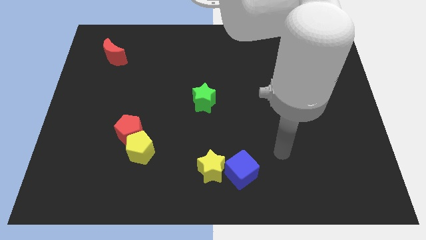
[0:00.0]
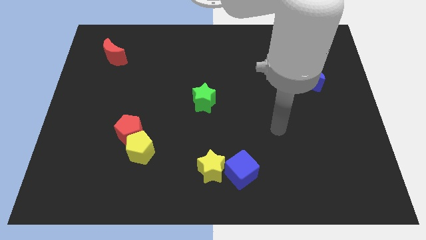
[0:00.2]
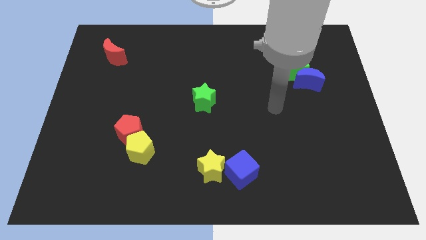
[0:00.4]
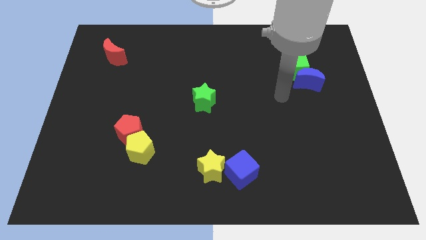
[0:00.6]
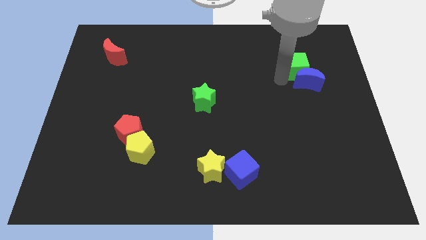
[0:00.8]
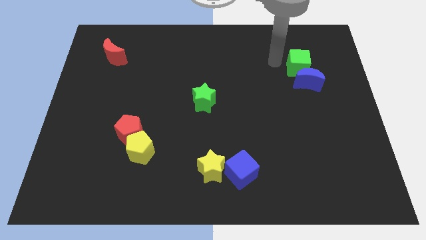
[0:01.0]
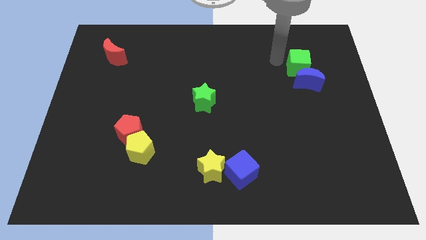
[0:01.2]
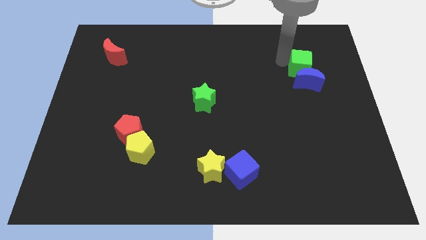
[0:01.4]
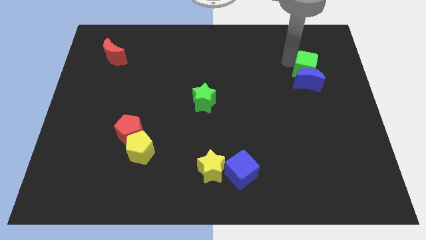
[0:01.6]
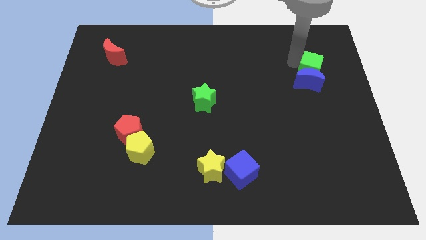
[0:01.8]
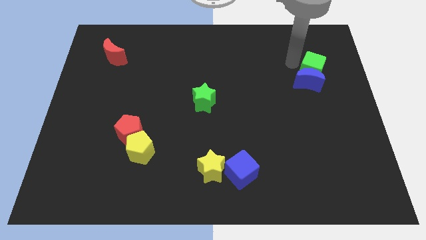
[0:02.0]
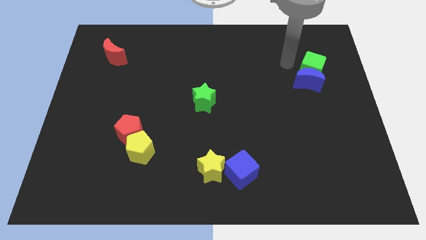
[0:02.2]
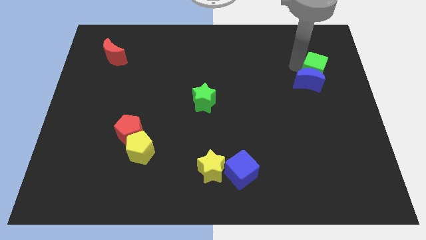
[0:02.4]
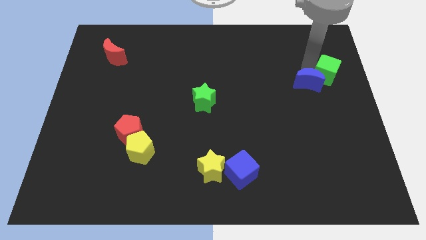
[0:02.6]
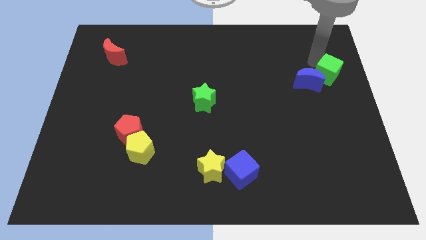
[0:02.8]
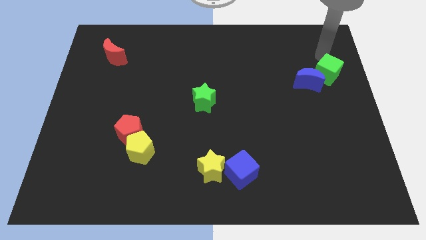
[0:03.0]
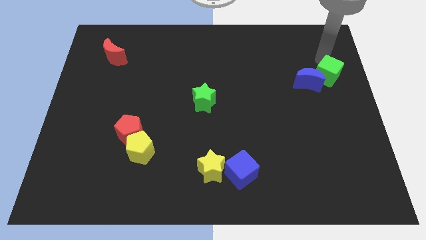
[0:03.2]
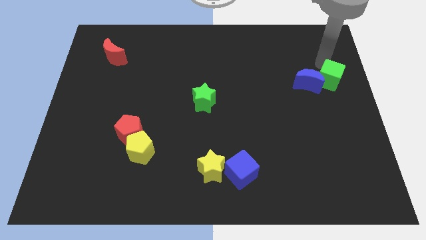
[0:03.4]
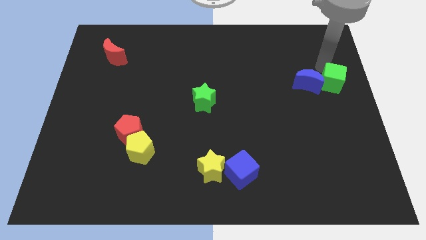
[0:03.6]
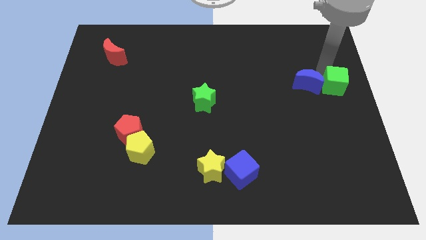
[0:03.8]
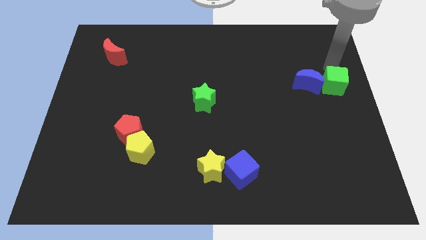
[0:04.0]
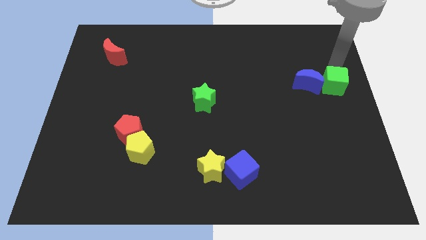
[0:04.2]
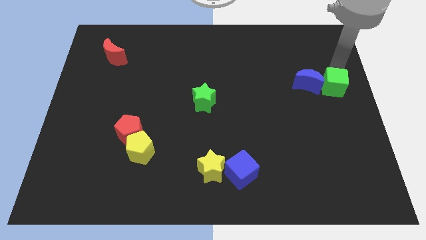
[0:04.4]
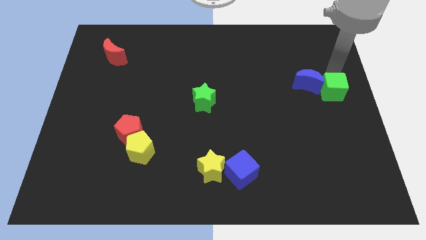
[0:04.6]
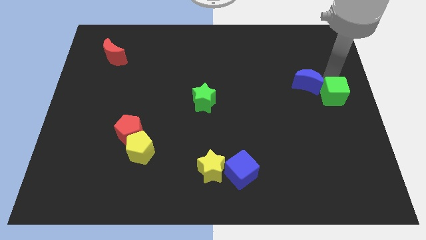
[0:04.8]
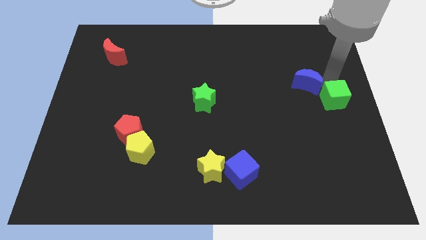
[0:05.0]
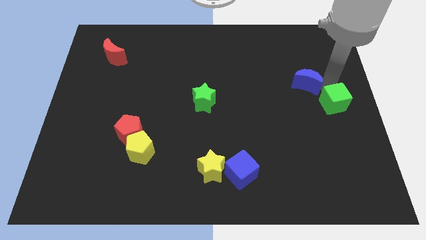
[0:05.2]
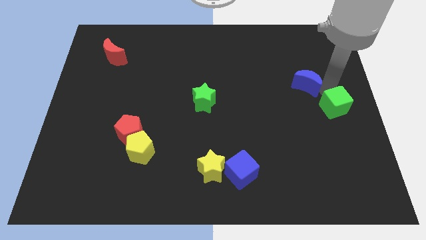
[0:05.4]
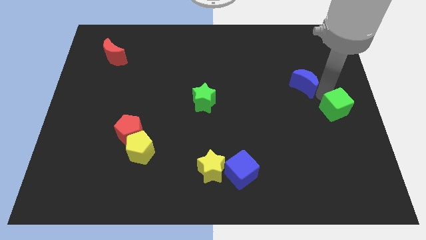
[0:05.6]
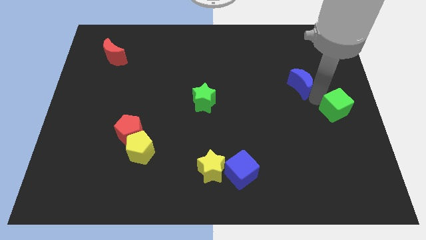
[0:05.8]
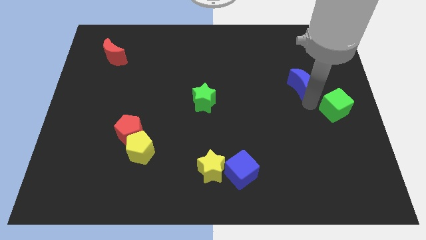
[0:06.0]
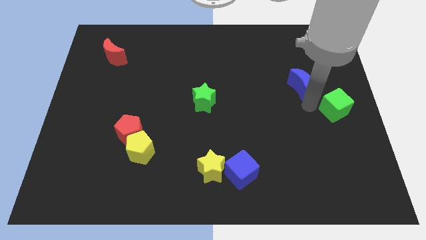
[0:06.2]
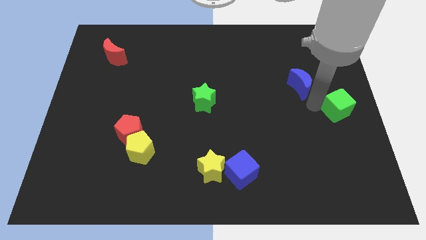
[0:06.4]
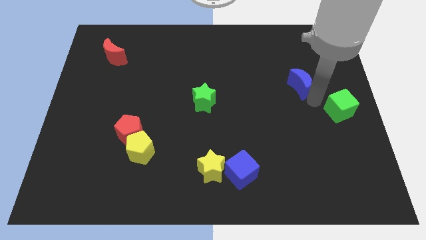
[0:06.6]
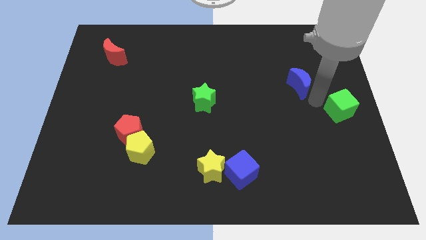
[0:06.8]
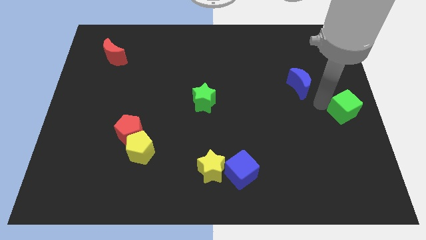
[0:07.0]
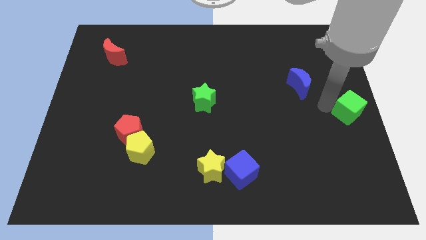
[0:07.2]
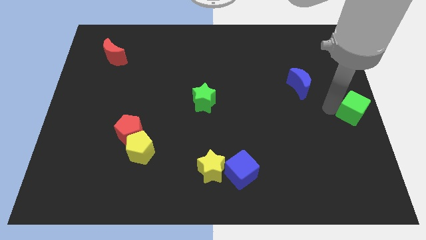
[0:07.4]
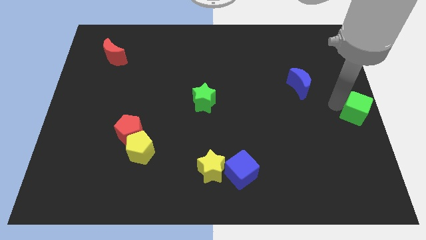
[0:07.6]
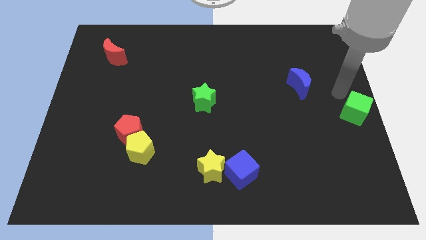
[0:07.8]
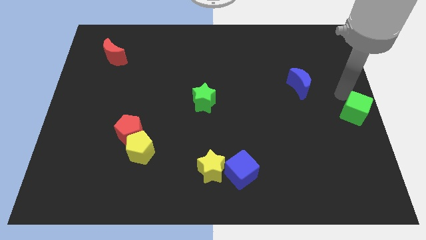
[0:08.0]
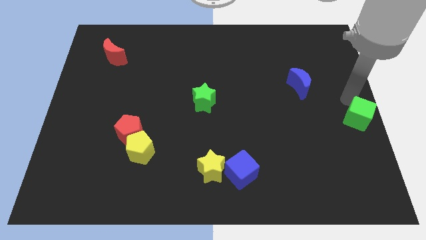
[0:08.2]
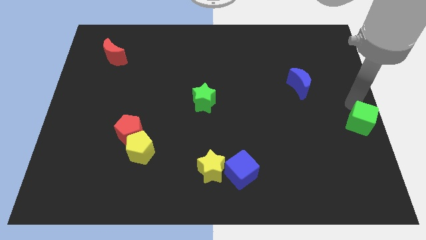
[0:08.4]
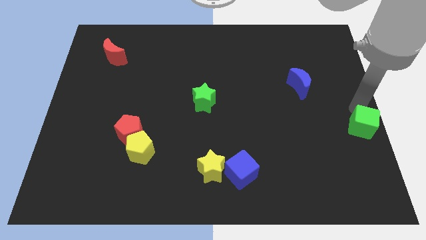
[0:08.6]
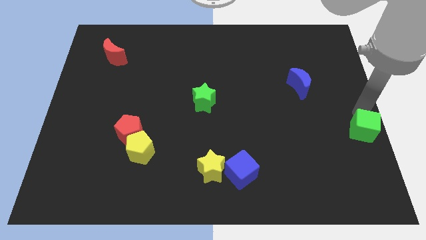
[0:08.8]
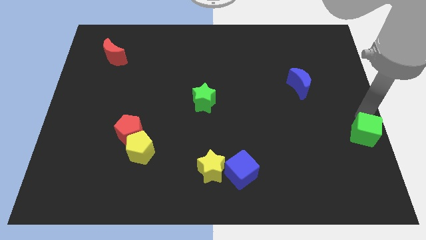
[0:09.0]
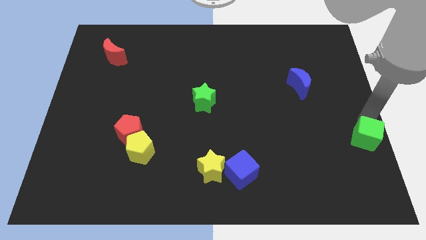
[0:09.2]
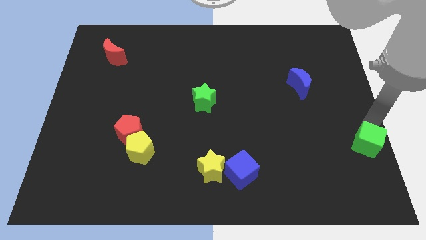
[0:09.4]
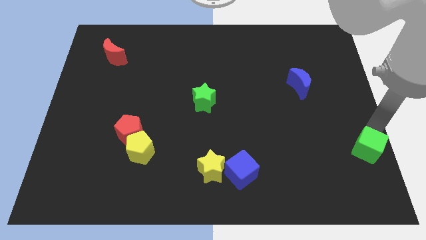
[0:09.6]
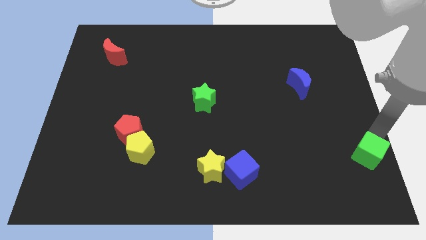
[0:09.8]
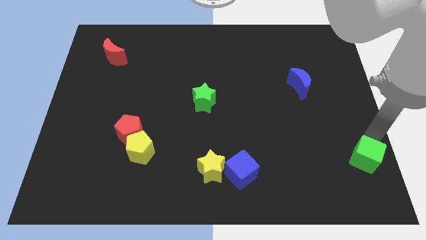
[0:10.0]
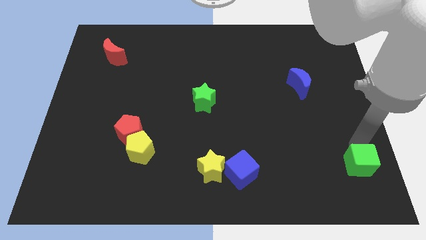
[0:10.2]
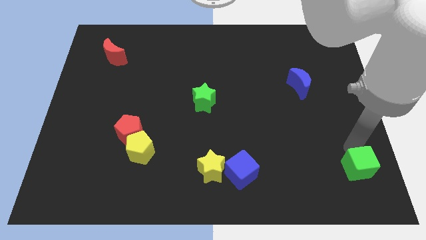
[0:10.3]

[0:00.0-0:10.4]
slide the green cube to the bottom right

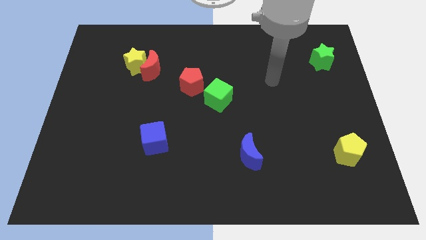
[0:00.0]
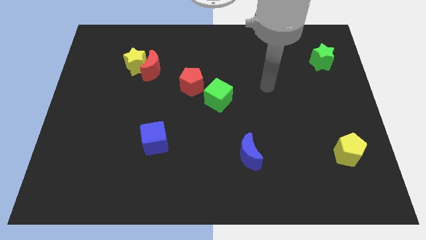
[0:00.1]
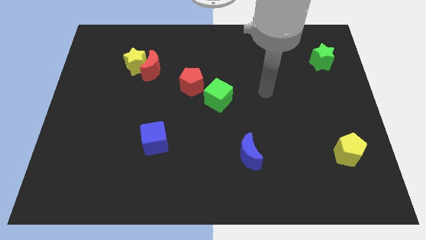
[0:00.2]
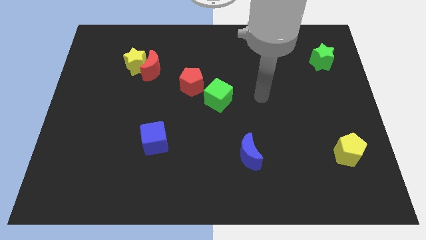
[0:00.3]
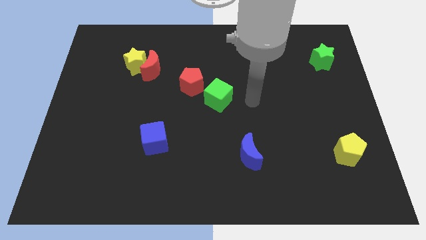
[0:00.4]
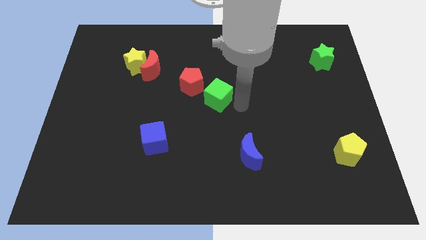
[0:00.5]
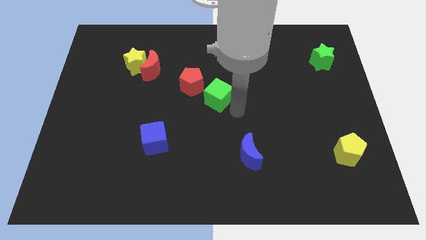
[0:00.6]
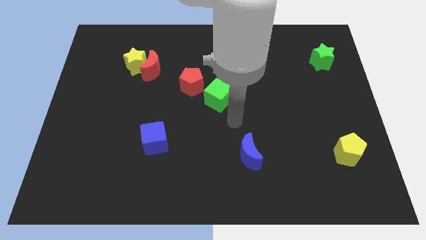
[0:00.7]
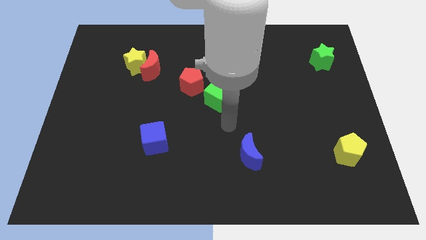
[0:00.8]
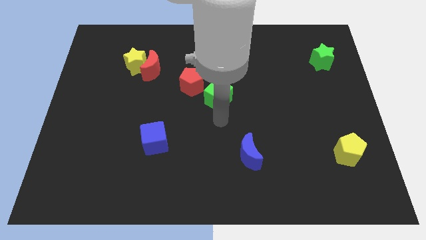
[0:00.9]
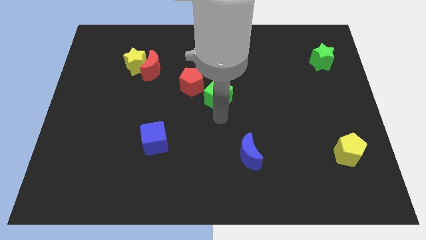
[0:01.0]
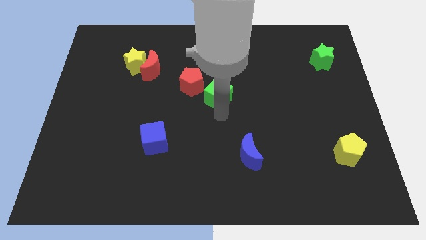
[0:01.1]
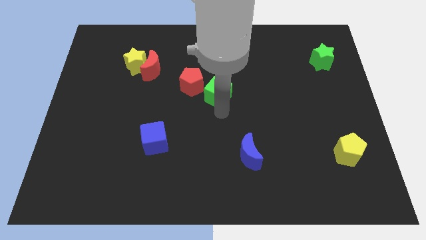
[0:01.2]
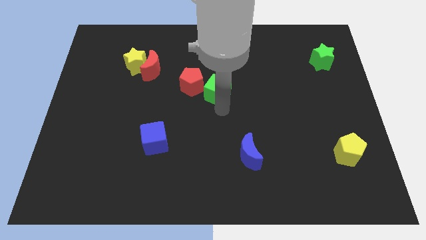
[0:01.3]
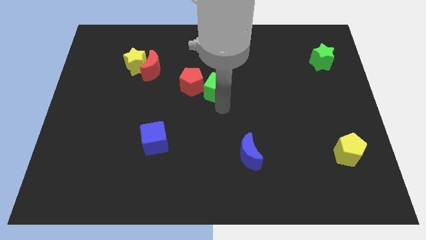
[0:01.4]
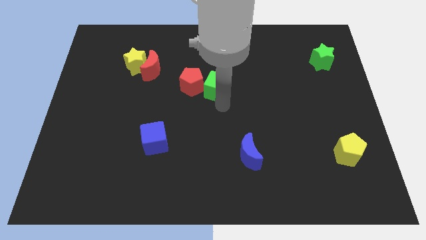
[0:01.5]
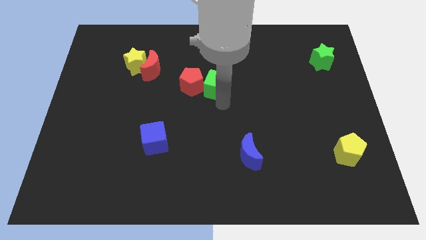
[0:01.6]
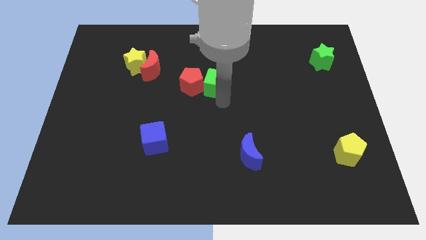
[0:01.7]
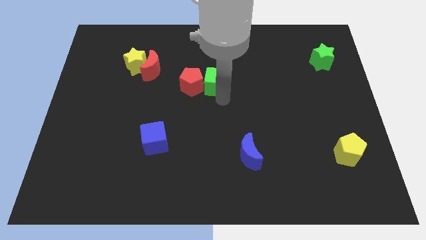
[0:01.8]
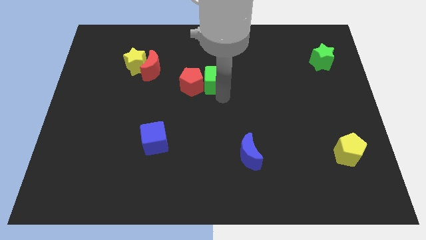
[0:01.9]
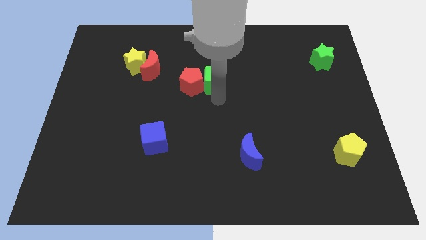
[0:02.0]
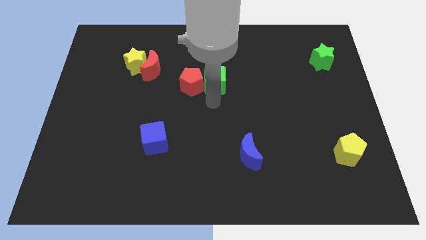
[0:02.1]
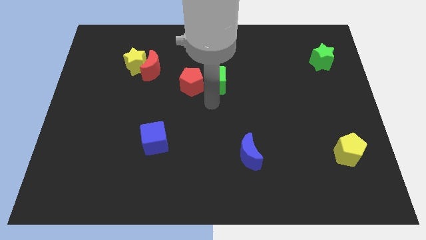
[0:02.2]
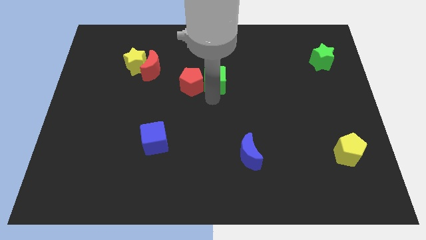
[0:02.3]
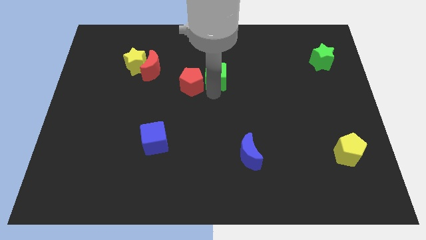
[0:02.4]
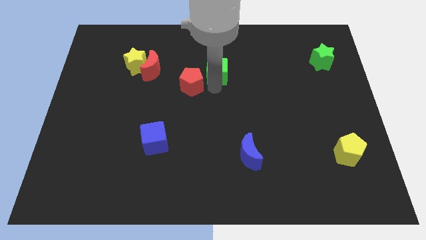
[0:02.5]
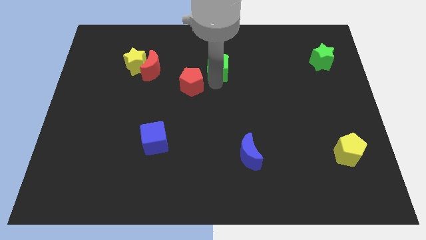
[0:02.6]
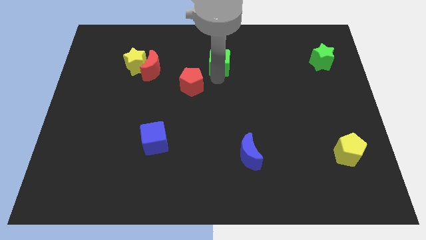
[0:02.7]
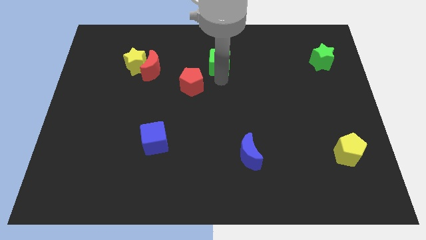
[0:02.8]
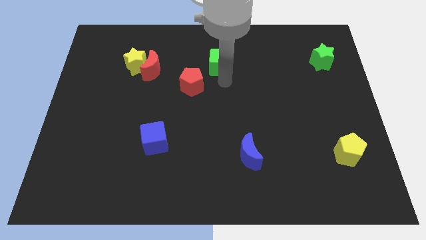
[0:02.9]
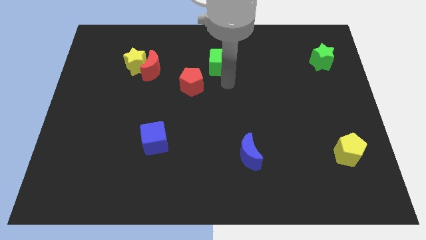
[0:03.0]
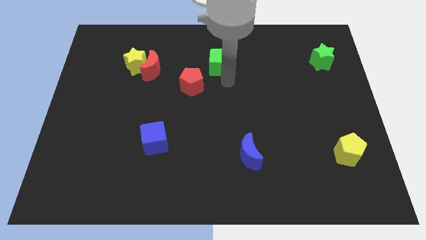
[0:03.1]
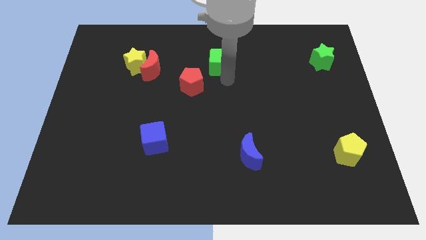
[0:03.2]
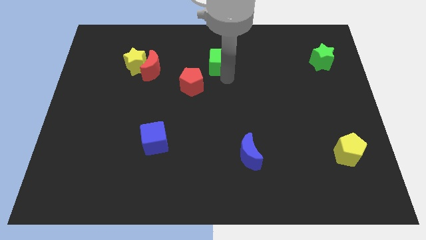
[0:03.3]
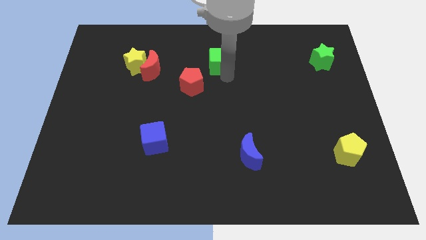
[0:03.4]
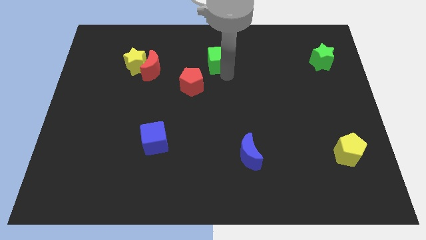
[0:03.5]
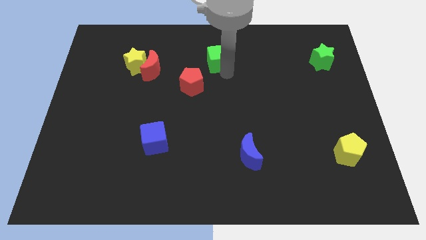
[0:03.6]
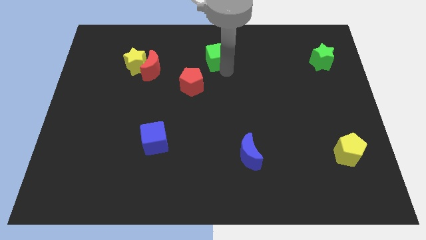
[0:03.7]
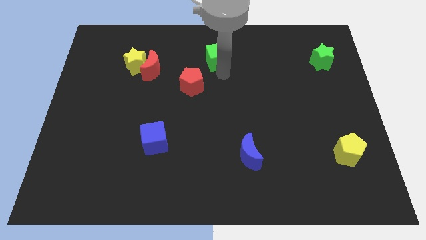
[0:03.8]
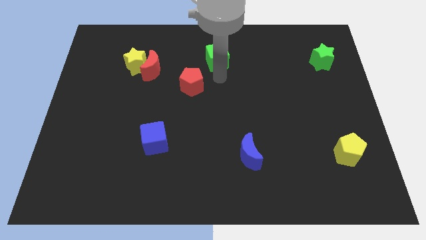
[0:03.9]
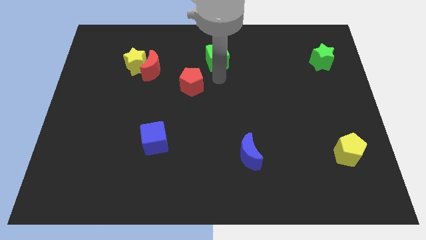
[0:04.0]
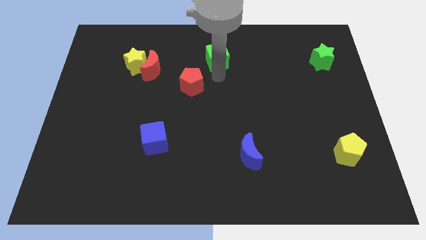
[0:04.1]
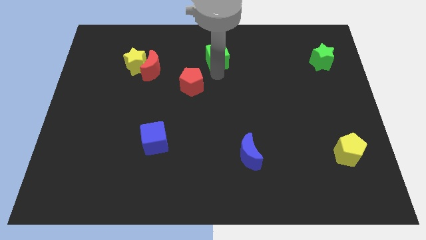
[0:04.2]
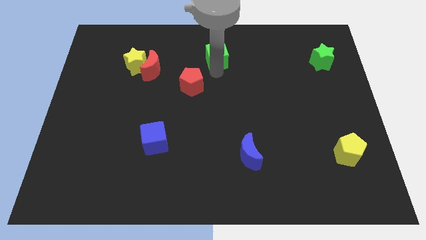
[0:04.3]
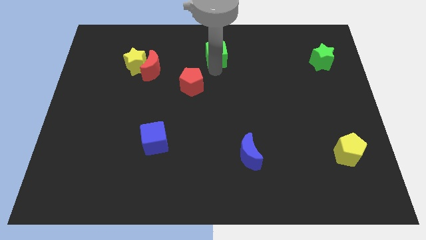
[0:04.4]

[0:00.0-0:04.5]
put the green cube to the top
